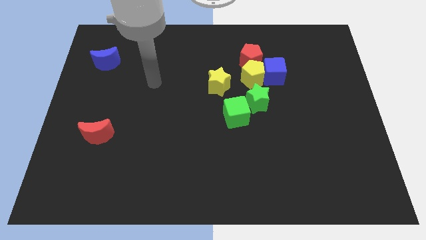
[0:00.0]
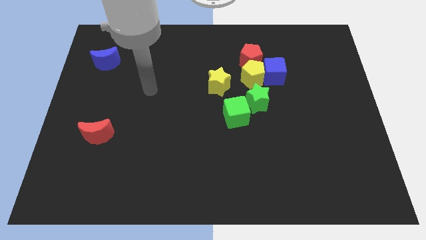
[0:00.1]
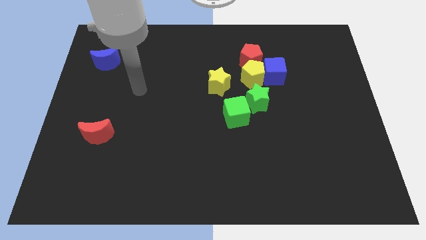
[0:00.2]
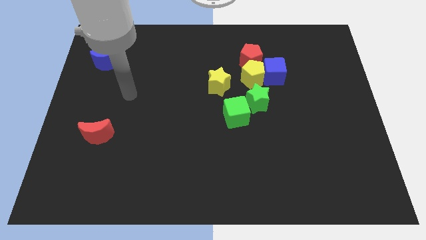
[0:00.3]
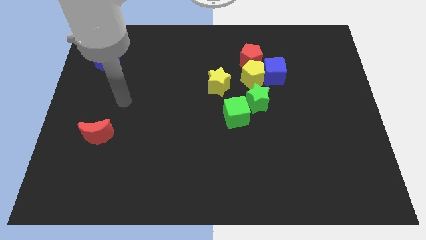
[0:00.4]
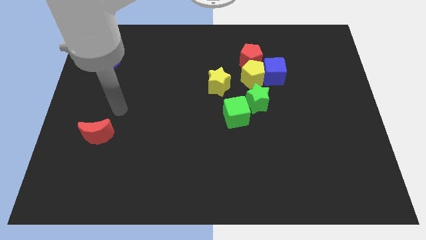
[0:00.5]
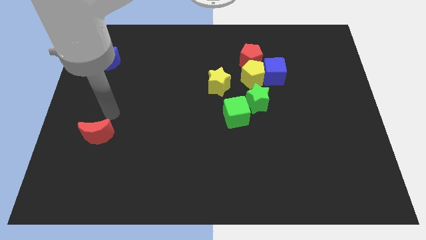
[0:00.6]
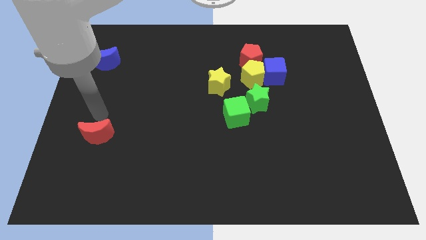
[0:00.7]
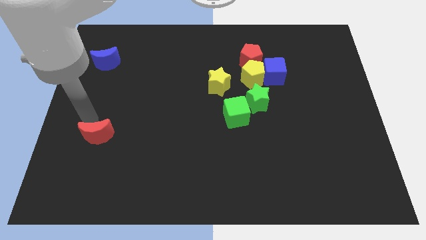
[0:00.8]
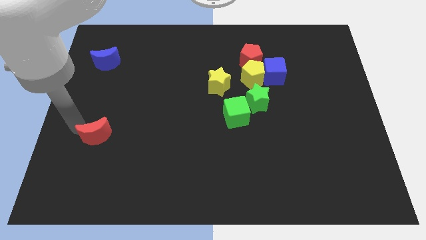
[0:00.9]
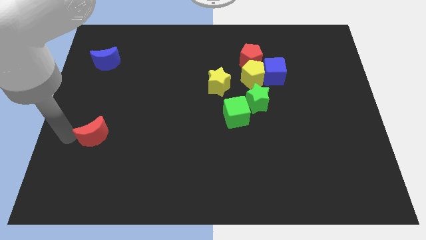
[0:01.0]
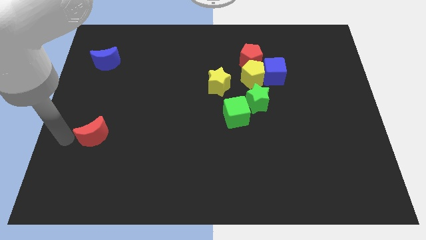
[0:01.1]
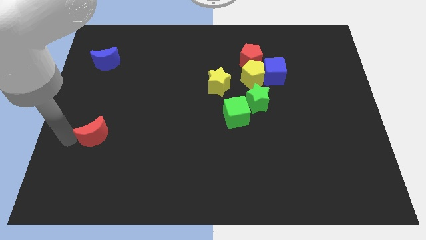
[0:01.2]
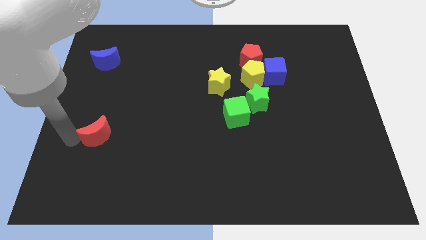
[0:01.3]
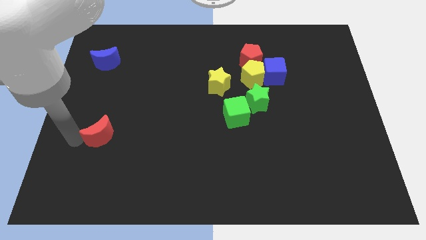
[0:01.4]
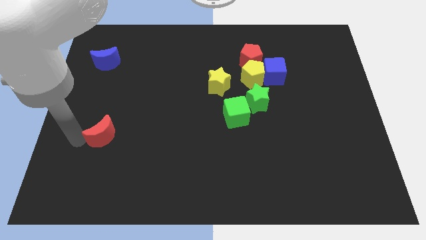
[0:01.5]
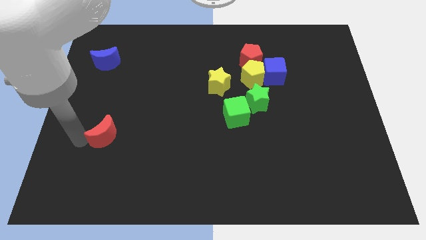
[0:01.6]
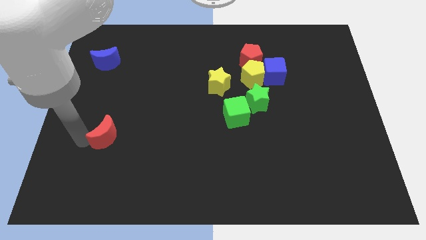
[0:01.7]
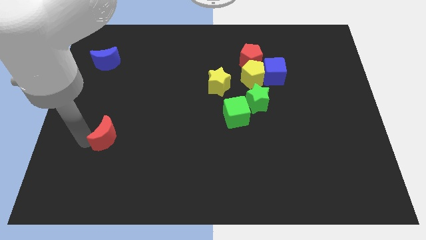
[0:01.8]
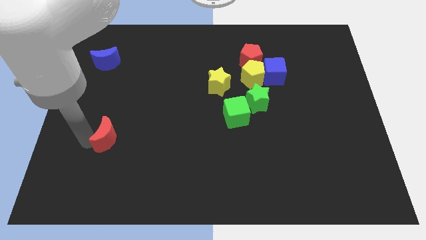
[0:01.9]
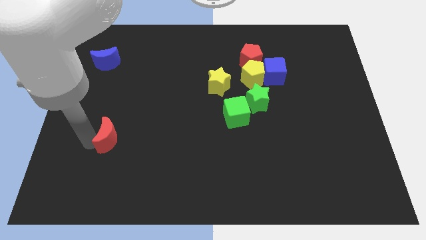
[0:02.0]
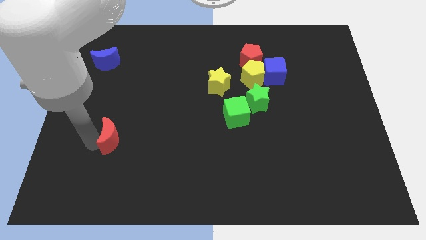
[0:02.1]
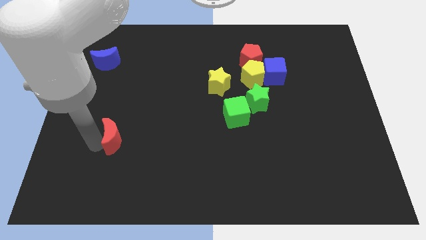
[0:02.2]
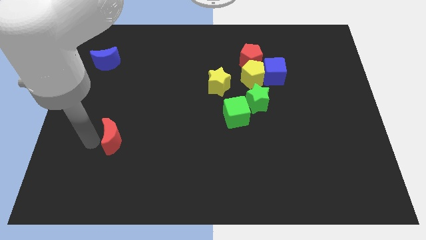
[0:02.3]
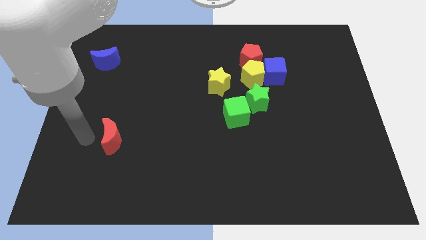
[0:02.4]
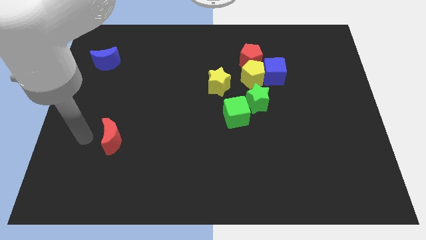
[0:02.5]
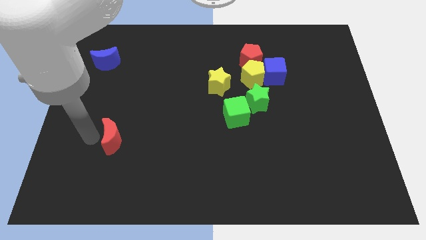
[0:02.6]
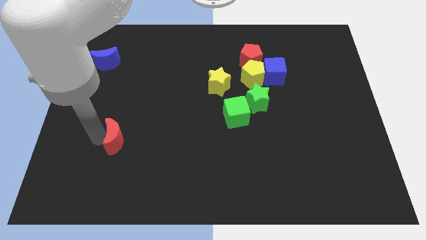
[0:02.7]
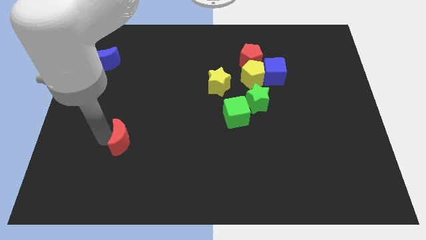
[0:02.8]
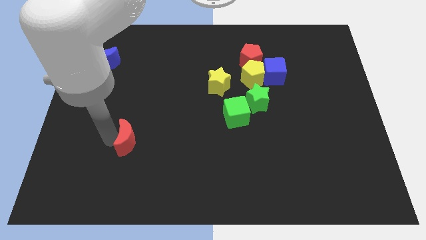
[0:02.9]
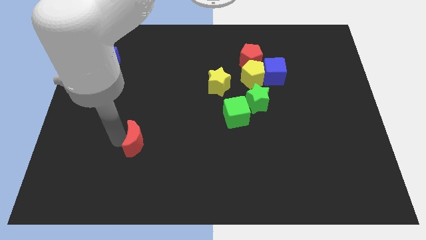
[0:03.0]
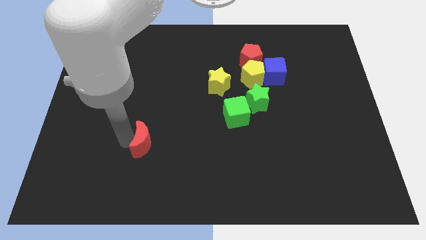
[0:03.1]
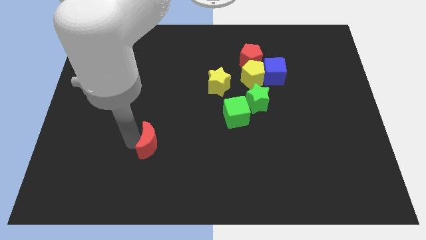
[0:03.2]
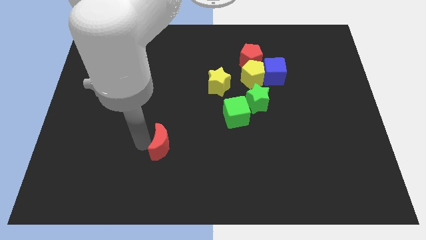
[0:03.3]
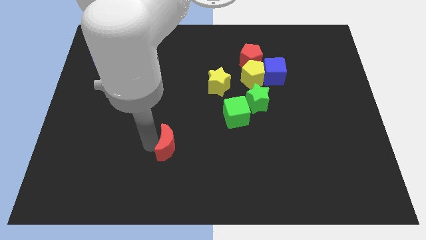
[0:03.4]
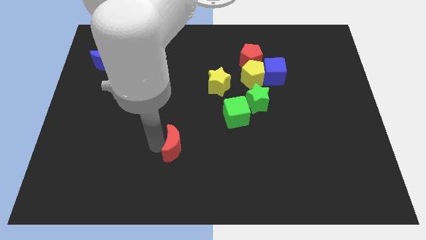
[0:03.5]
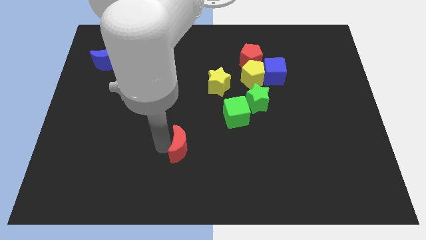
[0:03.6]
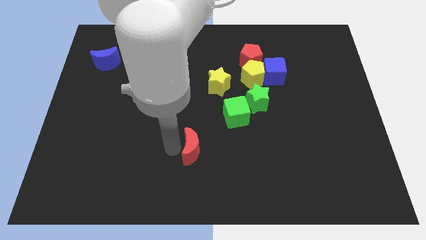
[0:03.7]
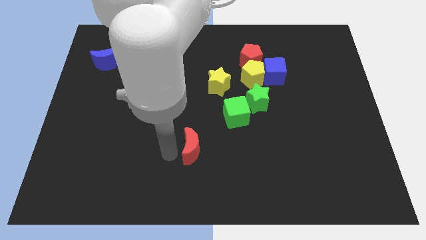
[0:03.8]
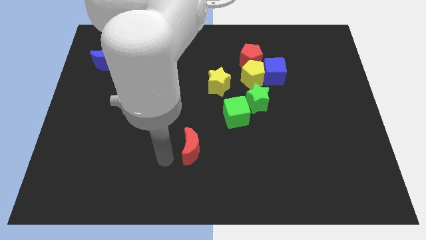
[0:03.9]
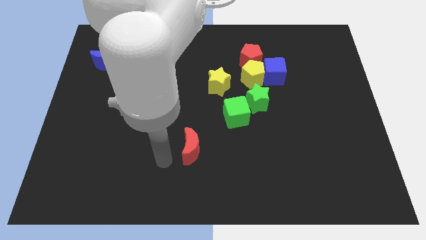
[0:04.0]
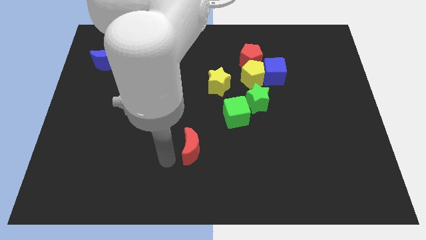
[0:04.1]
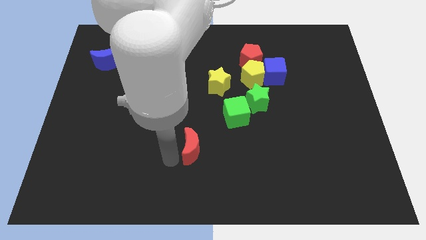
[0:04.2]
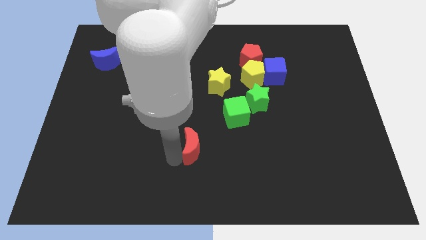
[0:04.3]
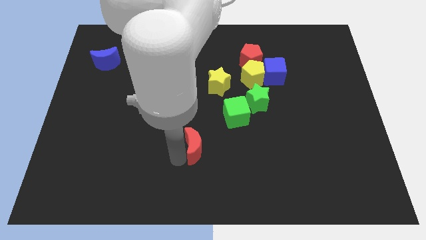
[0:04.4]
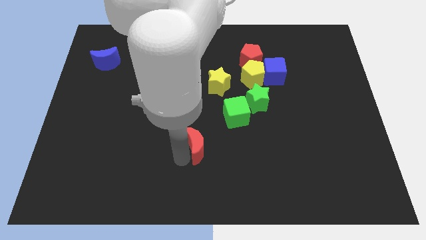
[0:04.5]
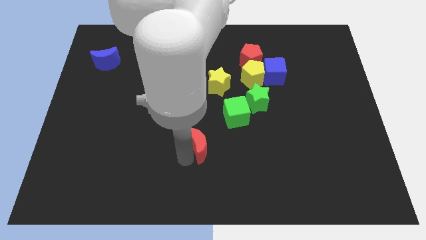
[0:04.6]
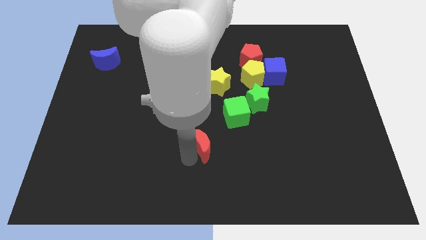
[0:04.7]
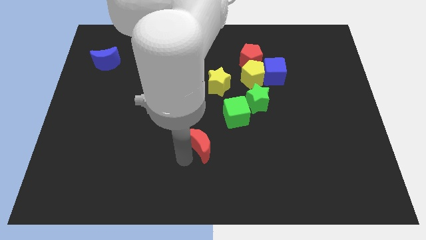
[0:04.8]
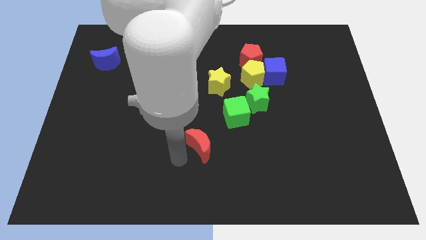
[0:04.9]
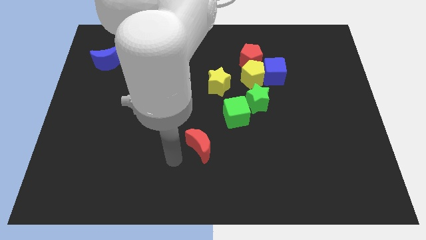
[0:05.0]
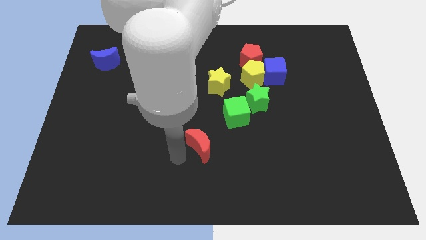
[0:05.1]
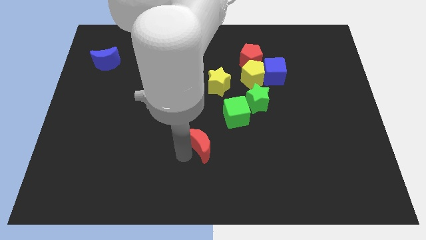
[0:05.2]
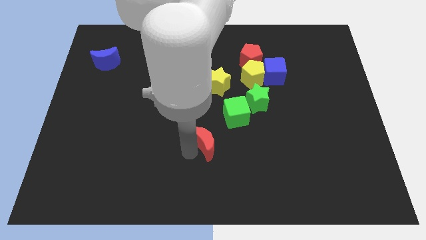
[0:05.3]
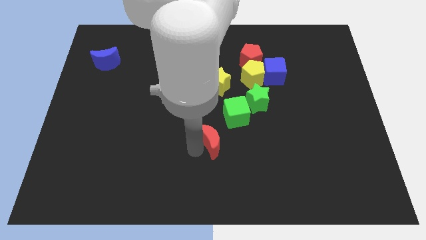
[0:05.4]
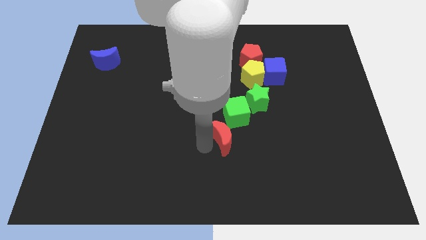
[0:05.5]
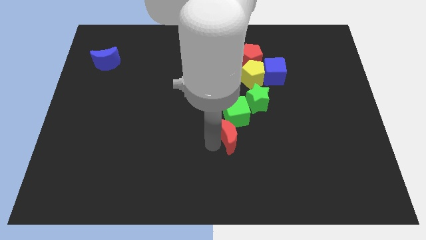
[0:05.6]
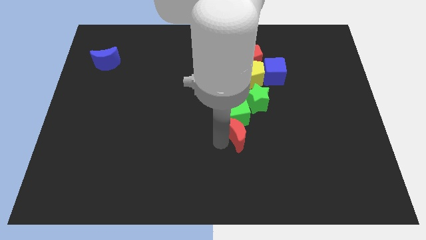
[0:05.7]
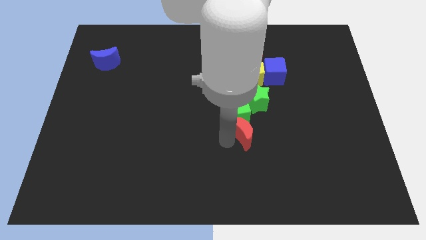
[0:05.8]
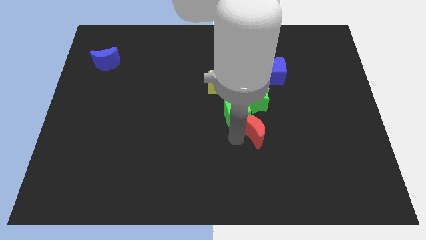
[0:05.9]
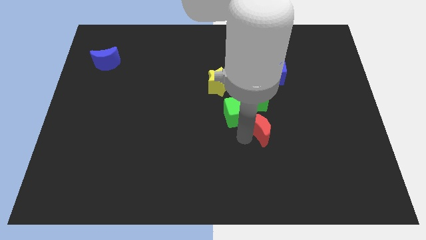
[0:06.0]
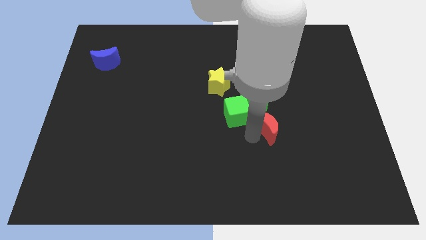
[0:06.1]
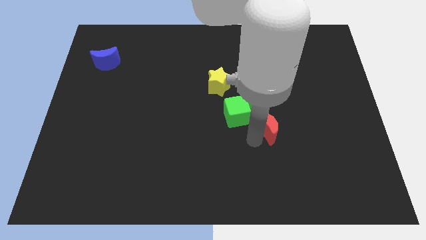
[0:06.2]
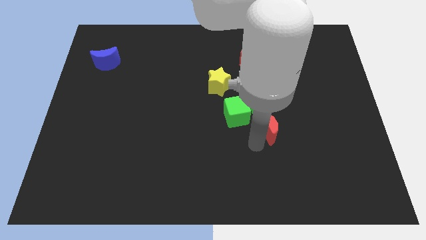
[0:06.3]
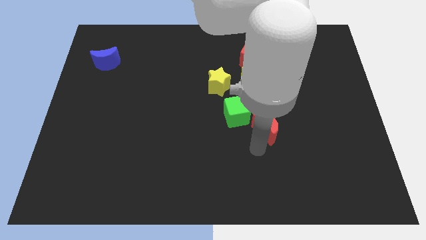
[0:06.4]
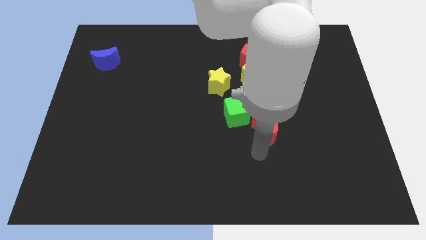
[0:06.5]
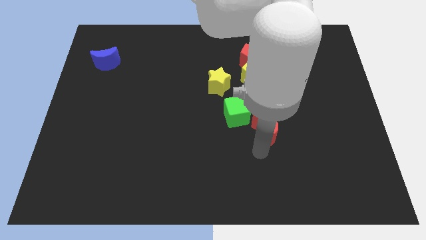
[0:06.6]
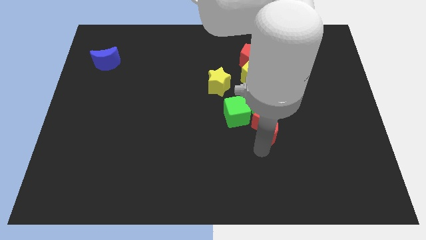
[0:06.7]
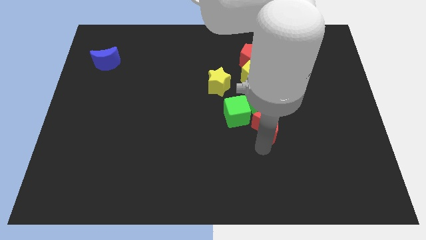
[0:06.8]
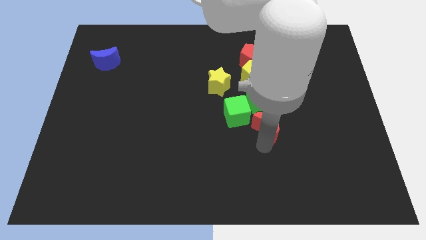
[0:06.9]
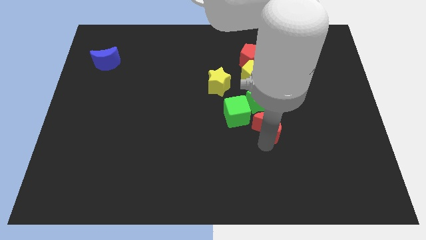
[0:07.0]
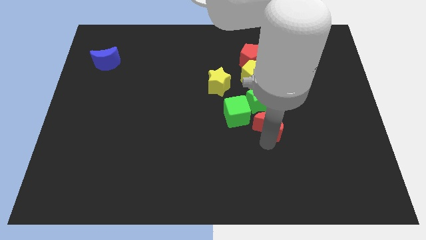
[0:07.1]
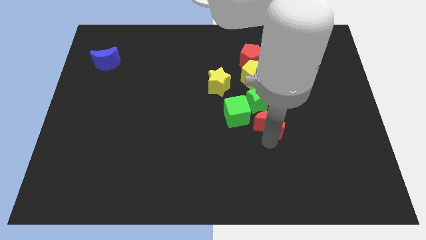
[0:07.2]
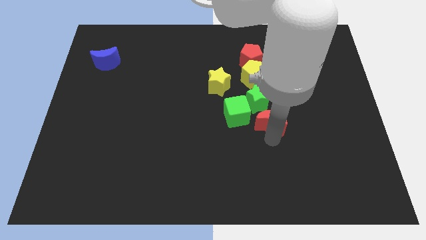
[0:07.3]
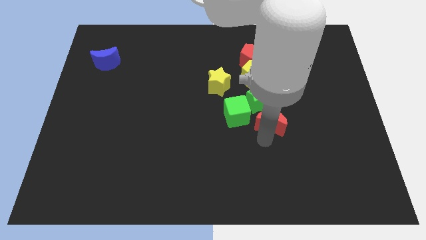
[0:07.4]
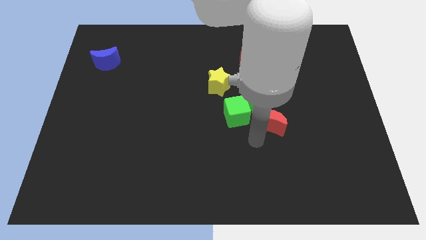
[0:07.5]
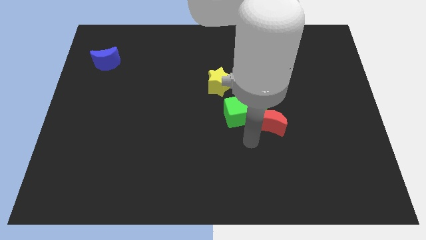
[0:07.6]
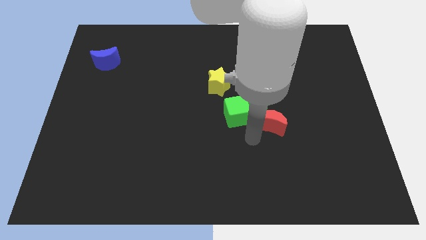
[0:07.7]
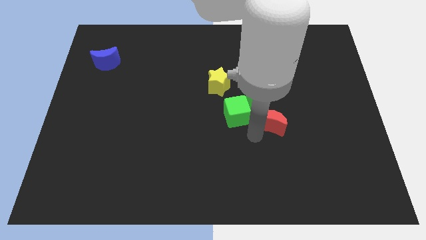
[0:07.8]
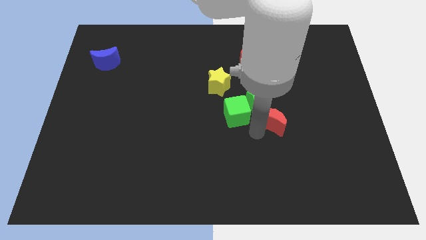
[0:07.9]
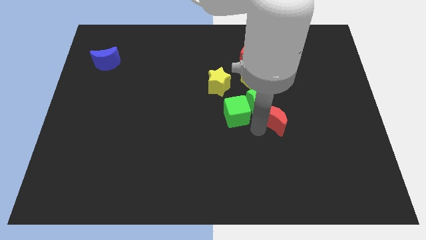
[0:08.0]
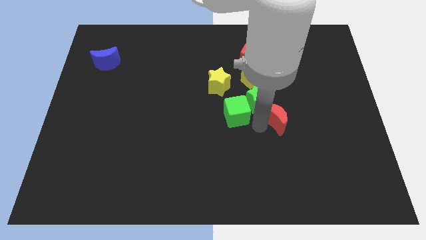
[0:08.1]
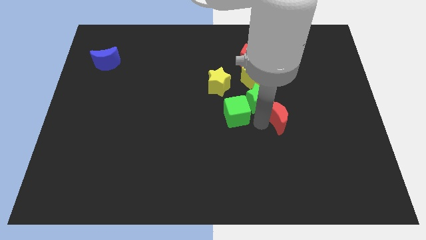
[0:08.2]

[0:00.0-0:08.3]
push the red moon to the right side of the green star
